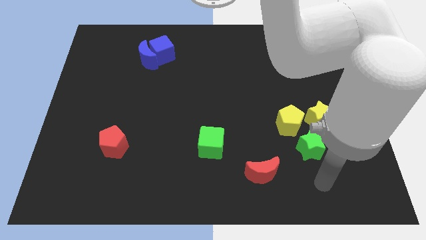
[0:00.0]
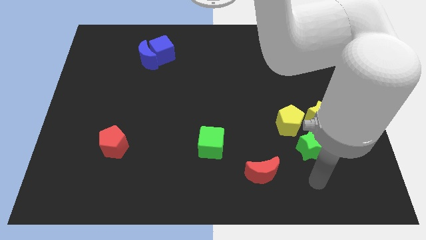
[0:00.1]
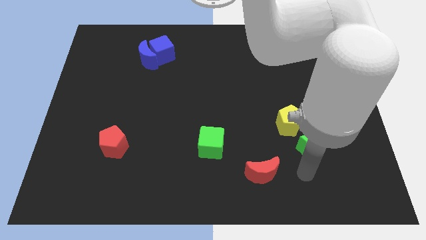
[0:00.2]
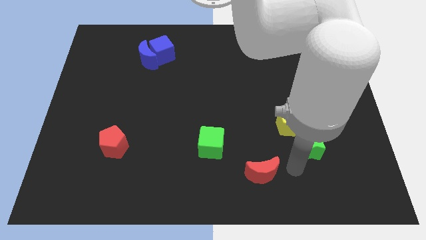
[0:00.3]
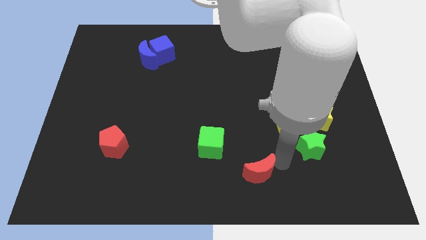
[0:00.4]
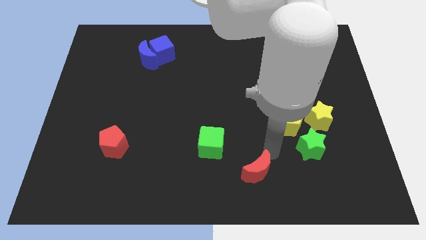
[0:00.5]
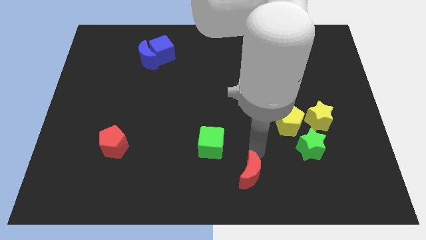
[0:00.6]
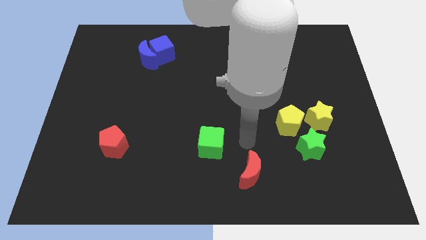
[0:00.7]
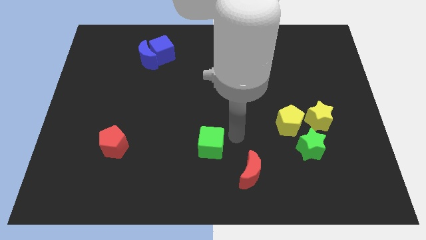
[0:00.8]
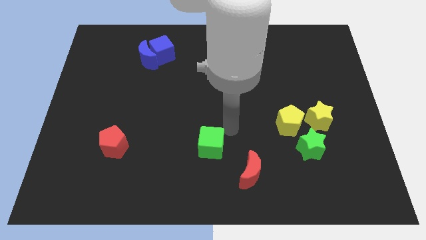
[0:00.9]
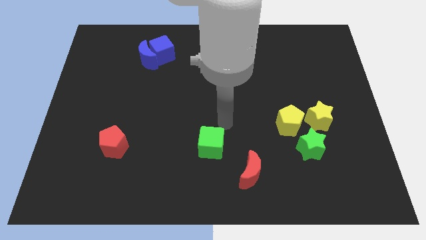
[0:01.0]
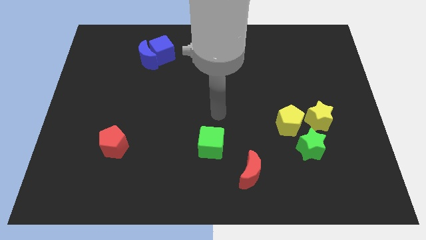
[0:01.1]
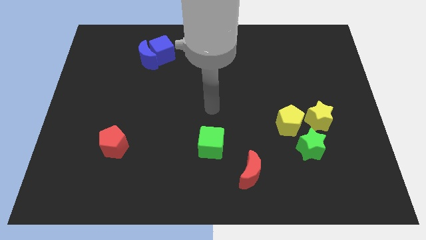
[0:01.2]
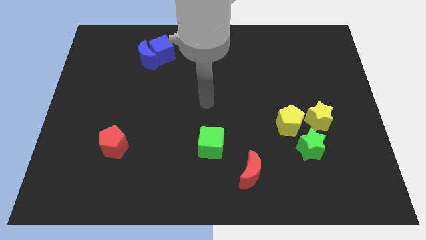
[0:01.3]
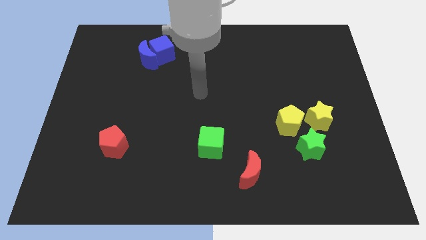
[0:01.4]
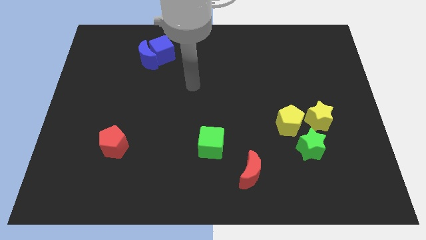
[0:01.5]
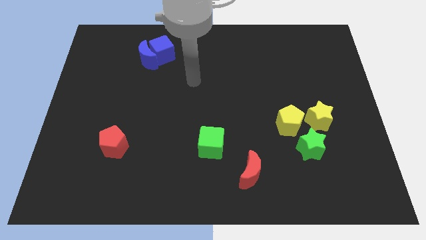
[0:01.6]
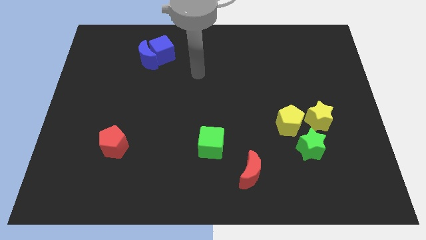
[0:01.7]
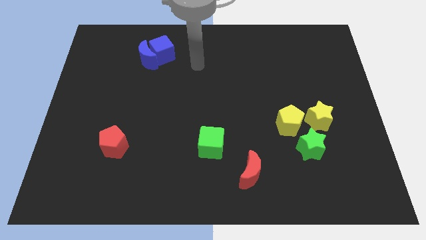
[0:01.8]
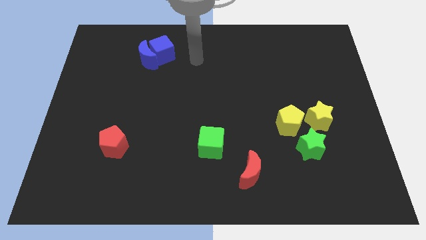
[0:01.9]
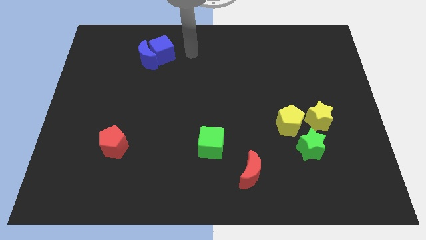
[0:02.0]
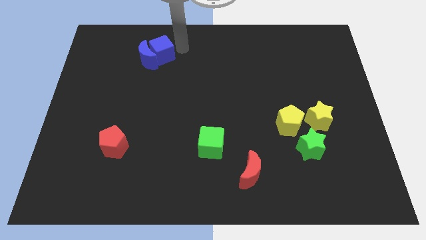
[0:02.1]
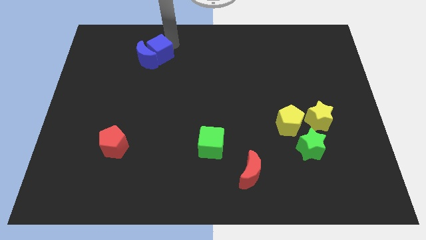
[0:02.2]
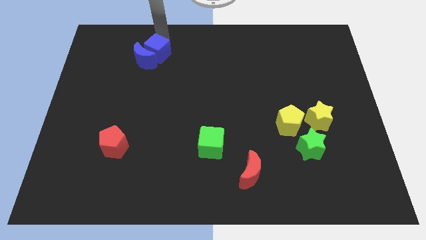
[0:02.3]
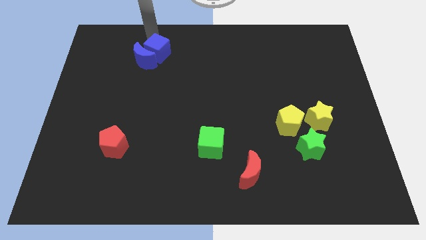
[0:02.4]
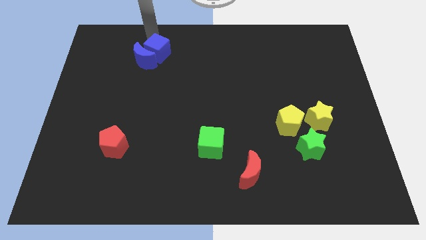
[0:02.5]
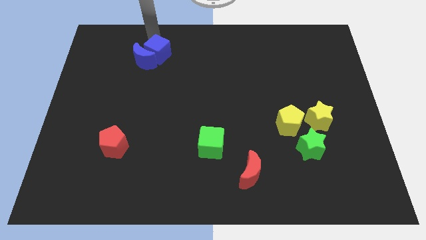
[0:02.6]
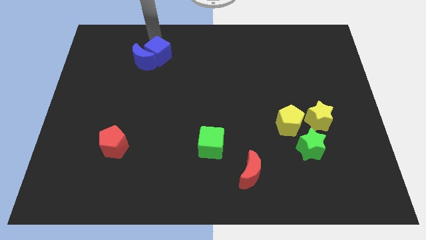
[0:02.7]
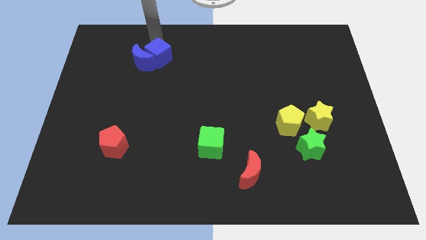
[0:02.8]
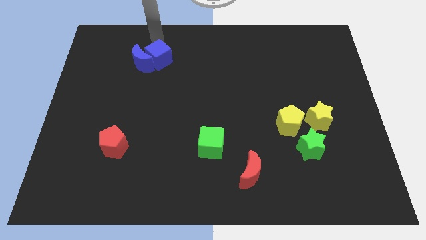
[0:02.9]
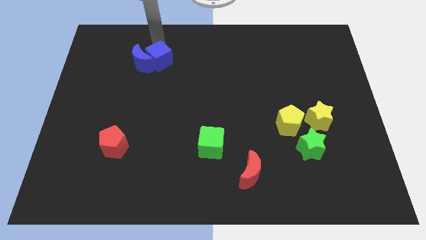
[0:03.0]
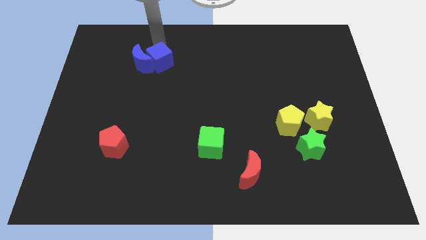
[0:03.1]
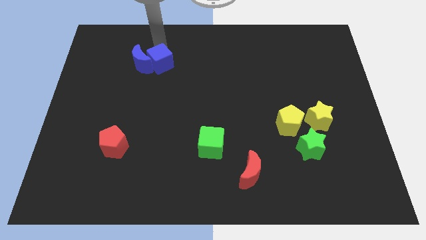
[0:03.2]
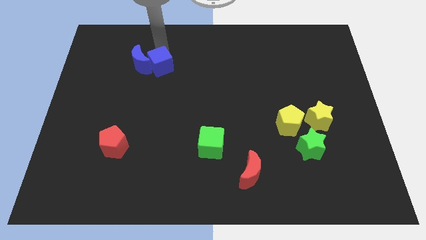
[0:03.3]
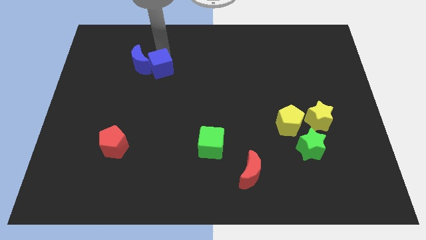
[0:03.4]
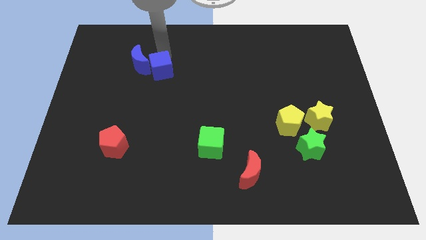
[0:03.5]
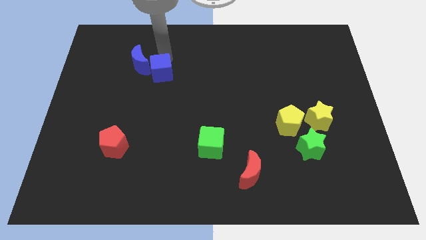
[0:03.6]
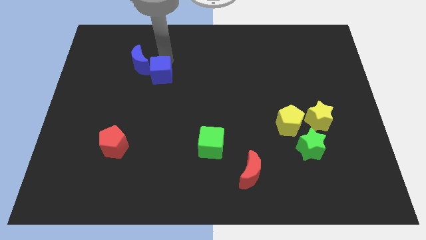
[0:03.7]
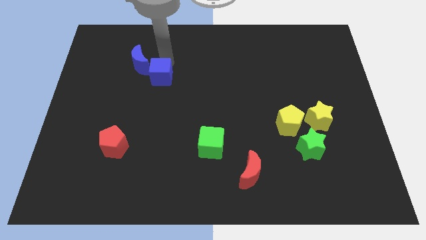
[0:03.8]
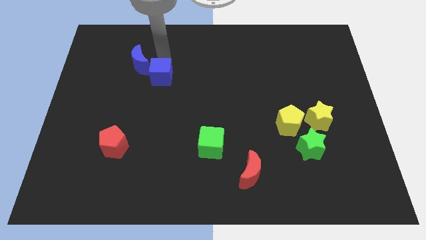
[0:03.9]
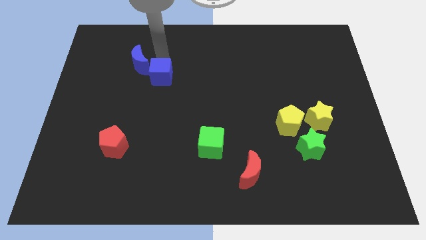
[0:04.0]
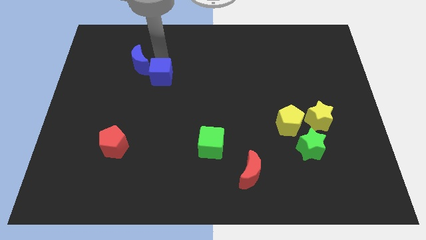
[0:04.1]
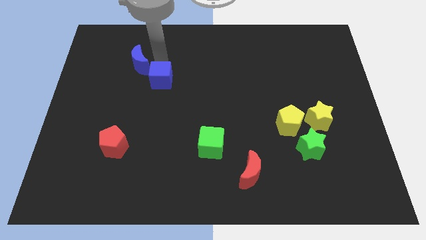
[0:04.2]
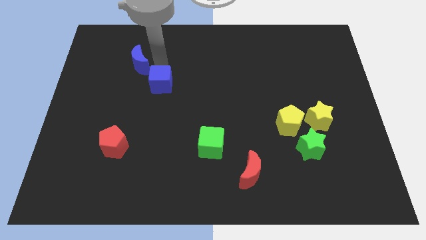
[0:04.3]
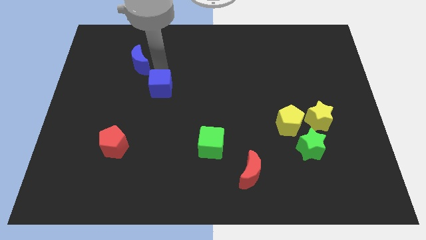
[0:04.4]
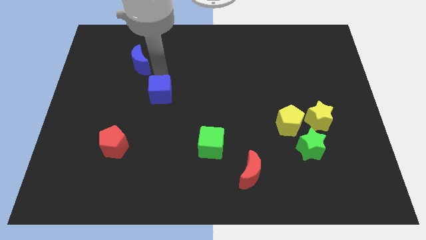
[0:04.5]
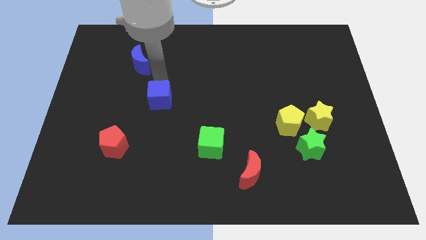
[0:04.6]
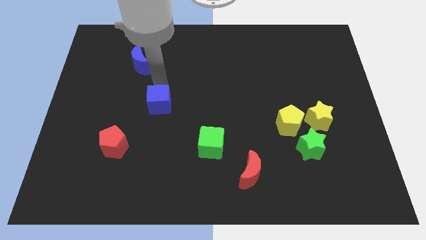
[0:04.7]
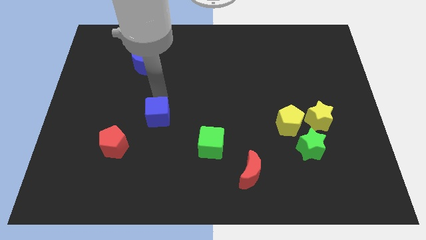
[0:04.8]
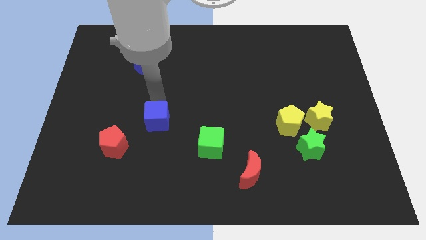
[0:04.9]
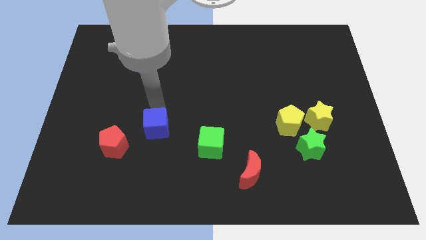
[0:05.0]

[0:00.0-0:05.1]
push the blue cube right of the red pentagon

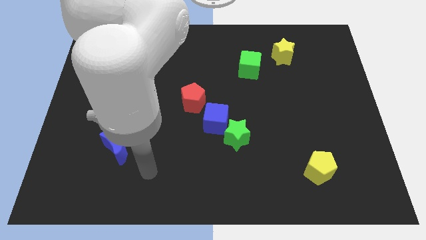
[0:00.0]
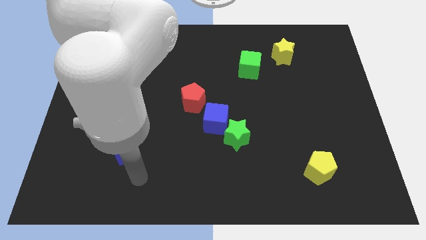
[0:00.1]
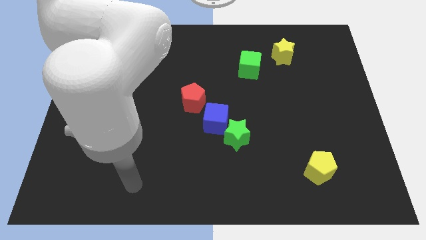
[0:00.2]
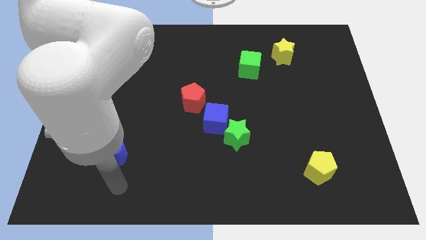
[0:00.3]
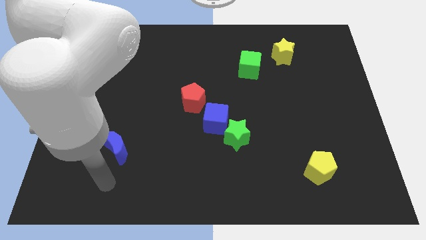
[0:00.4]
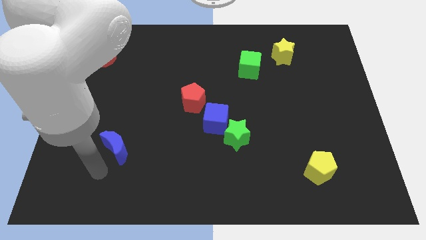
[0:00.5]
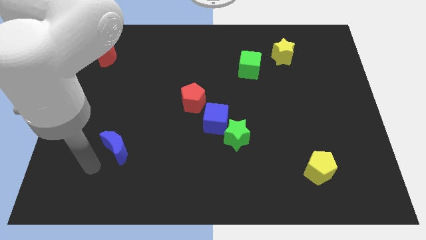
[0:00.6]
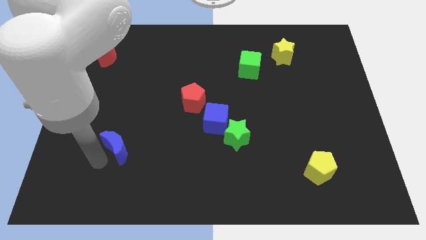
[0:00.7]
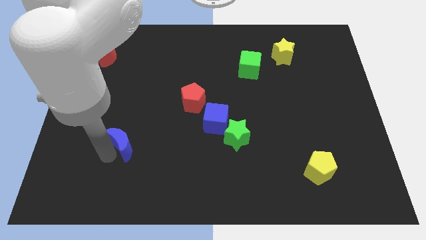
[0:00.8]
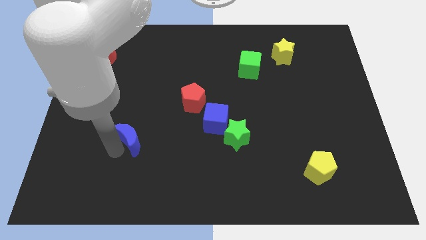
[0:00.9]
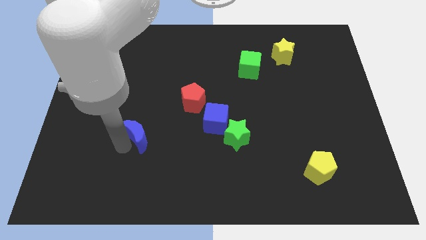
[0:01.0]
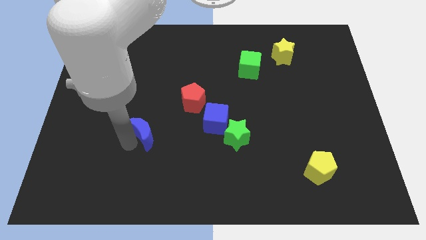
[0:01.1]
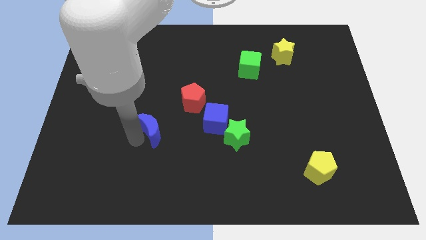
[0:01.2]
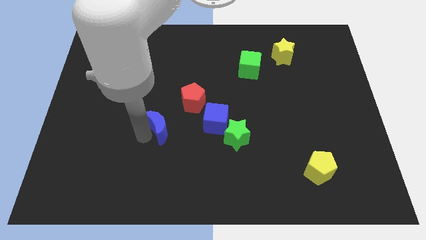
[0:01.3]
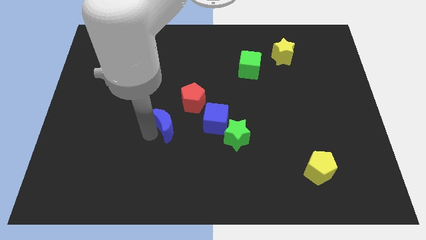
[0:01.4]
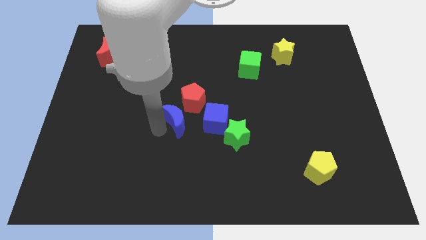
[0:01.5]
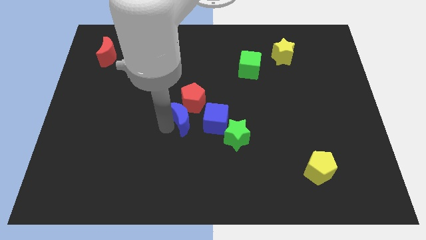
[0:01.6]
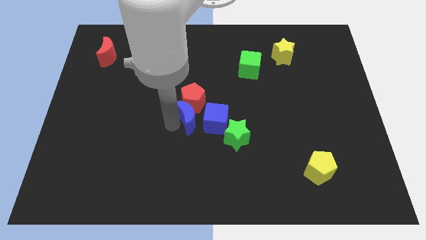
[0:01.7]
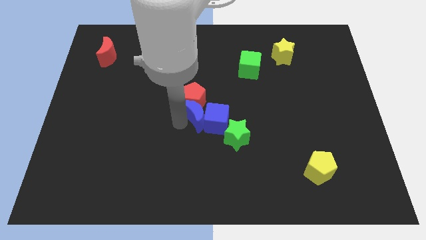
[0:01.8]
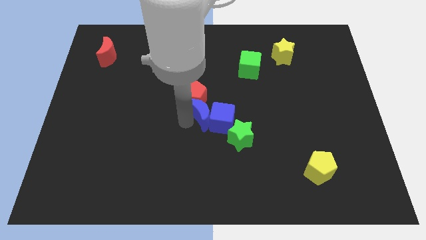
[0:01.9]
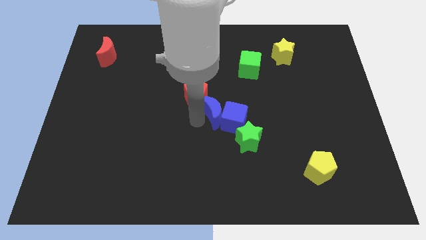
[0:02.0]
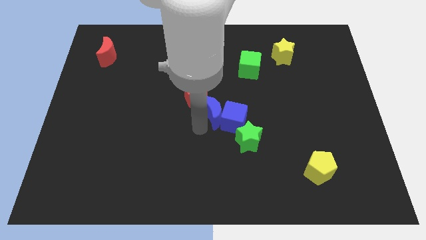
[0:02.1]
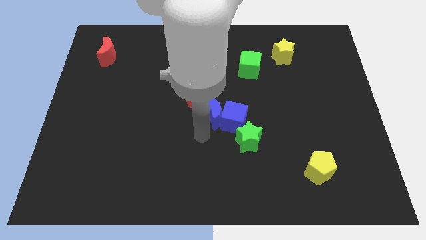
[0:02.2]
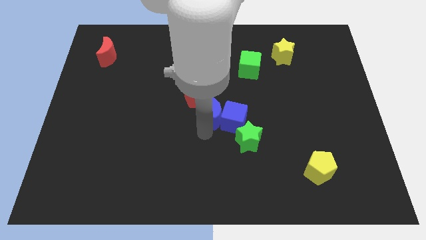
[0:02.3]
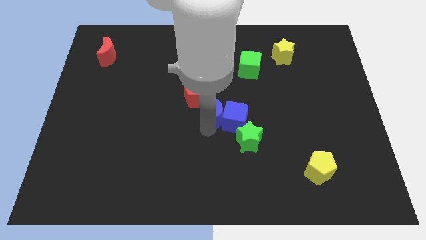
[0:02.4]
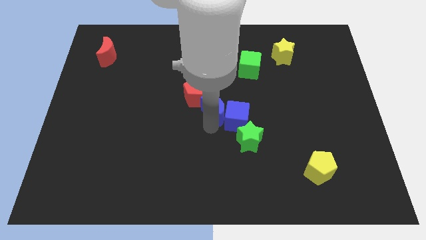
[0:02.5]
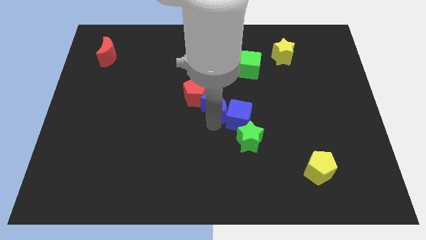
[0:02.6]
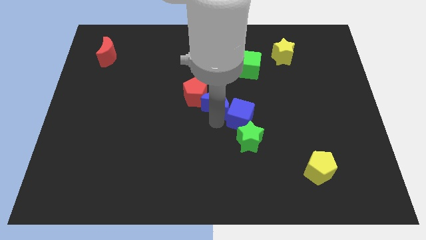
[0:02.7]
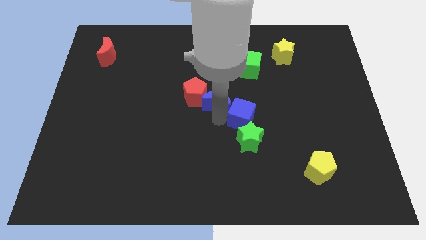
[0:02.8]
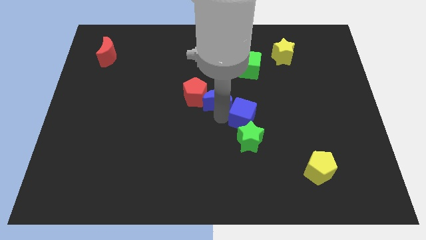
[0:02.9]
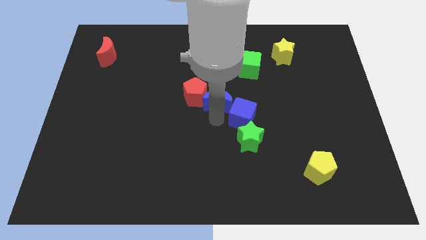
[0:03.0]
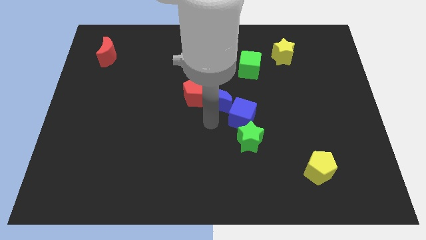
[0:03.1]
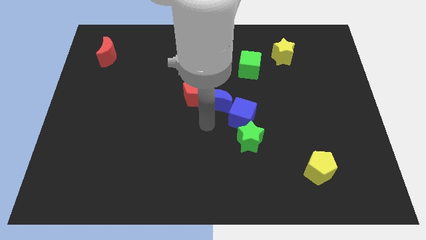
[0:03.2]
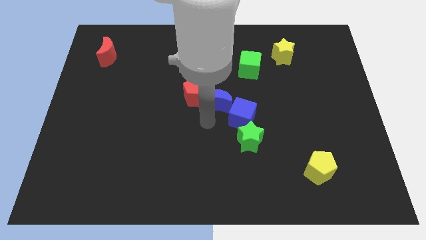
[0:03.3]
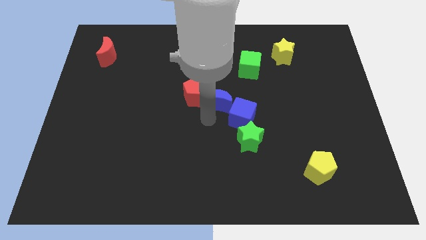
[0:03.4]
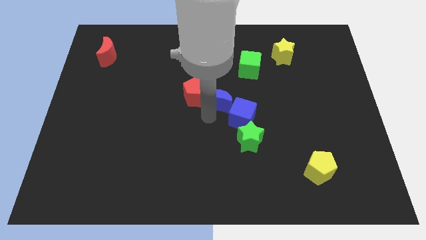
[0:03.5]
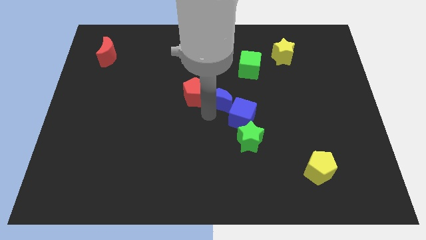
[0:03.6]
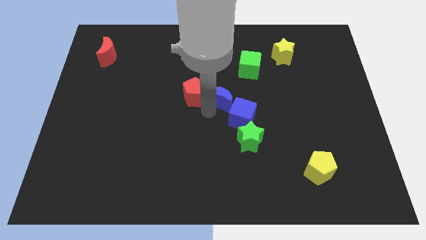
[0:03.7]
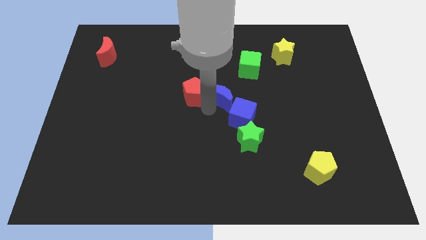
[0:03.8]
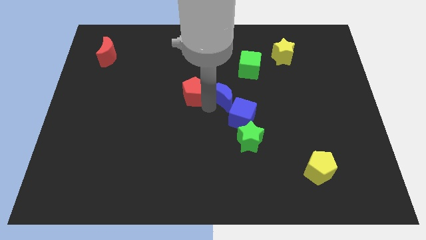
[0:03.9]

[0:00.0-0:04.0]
move the blue moon diagonally down and to the left of the green cube
